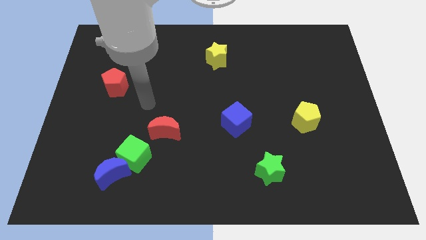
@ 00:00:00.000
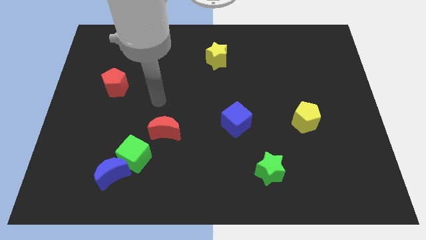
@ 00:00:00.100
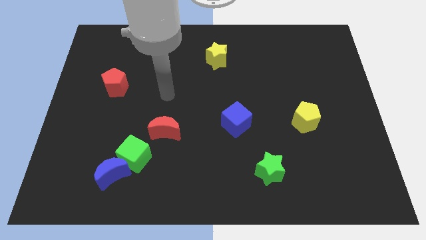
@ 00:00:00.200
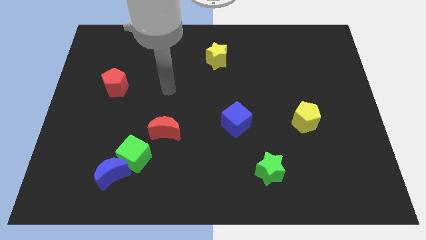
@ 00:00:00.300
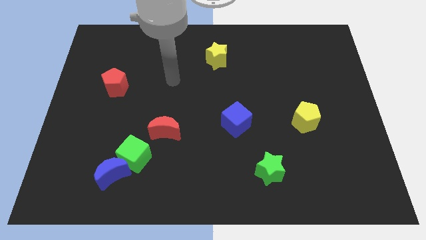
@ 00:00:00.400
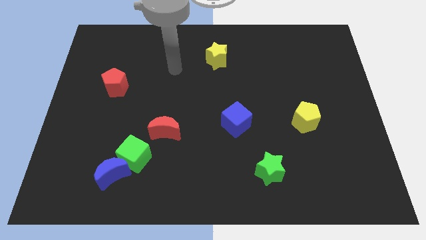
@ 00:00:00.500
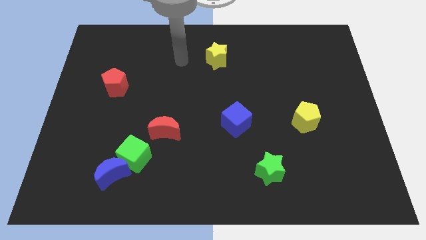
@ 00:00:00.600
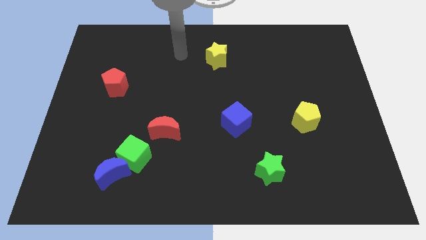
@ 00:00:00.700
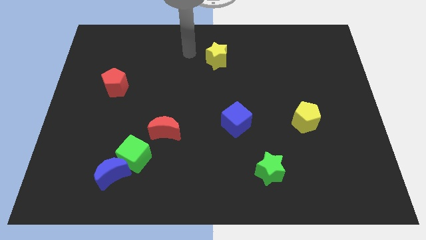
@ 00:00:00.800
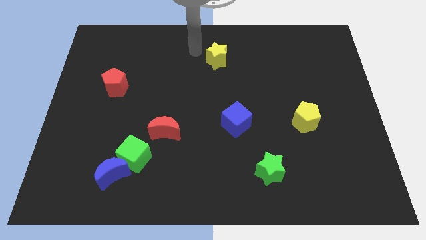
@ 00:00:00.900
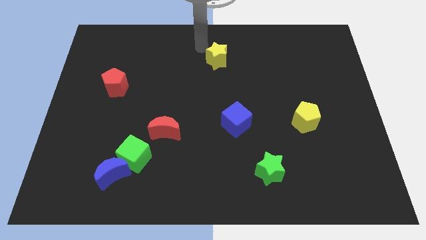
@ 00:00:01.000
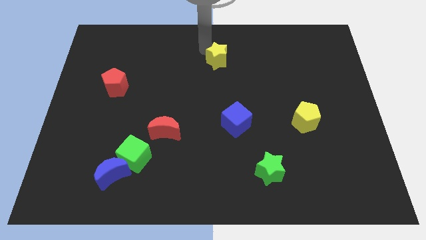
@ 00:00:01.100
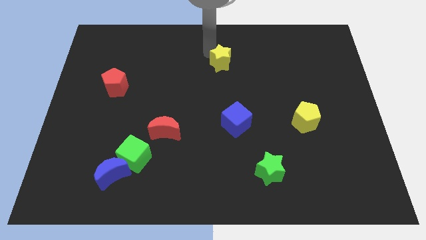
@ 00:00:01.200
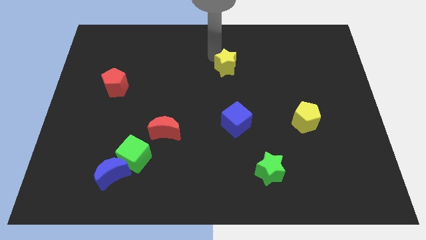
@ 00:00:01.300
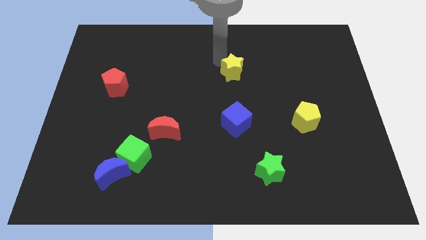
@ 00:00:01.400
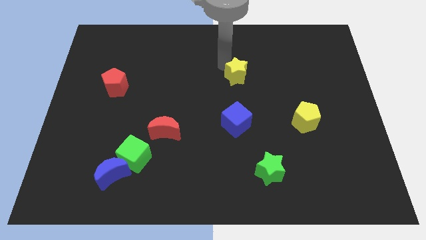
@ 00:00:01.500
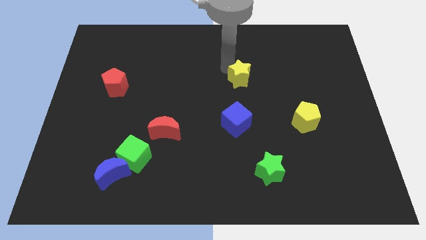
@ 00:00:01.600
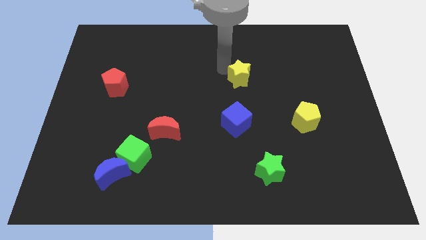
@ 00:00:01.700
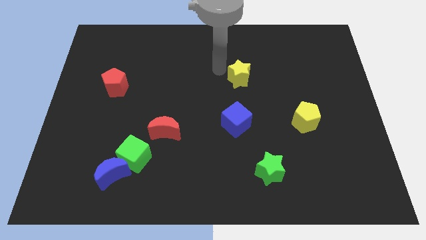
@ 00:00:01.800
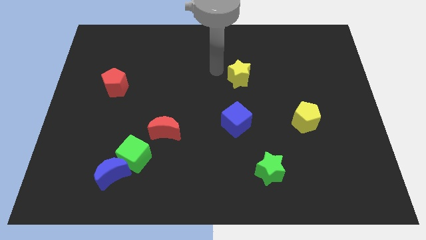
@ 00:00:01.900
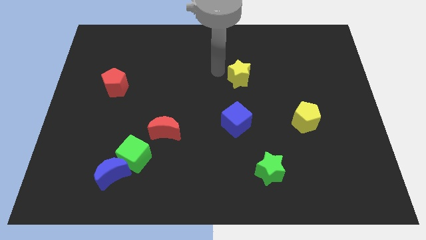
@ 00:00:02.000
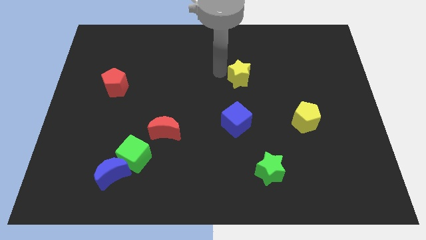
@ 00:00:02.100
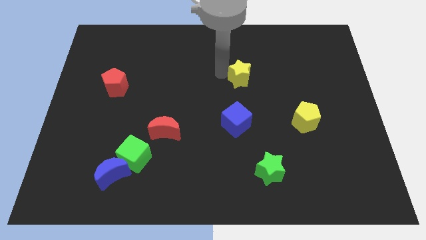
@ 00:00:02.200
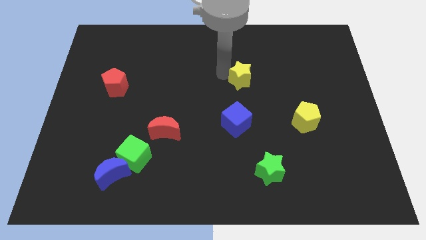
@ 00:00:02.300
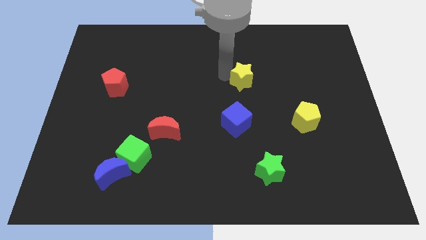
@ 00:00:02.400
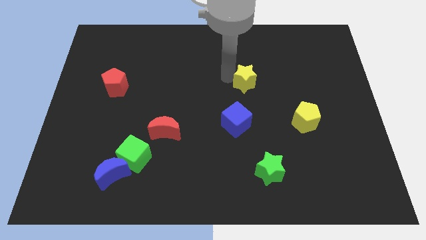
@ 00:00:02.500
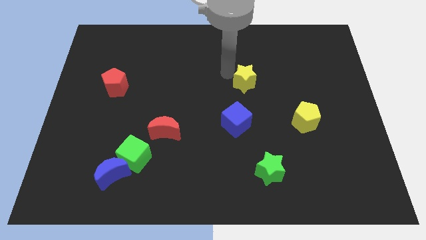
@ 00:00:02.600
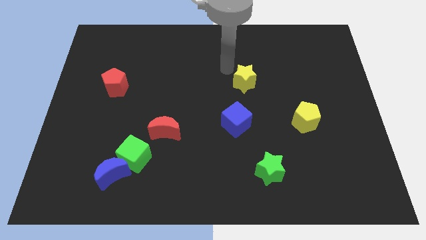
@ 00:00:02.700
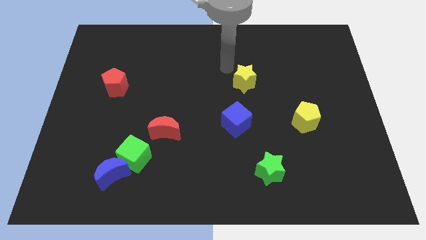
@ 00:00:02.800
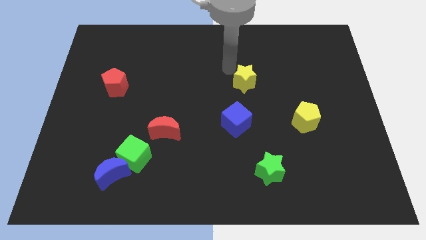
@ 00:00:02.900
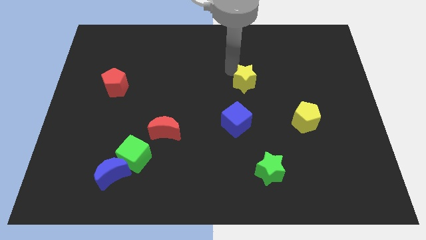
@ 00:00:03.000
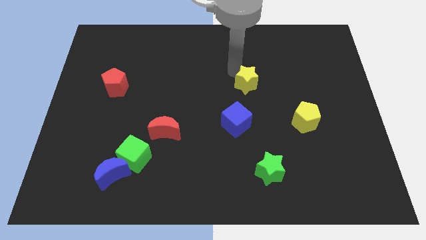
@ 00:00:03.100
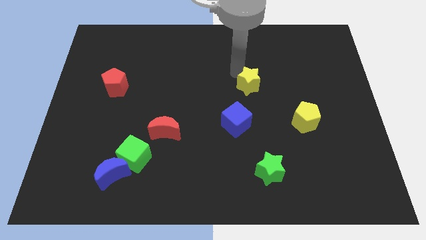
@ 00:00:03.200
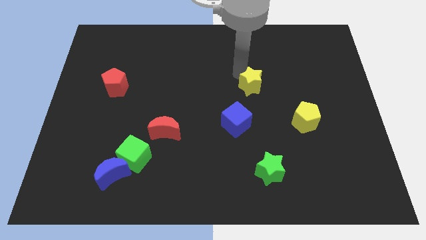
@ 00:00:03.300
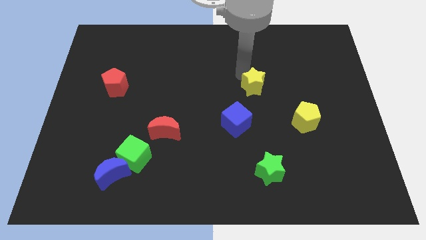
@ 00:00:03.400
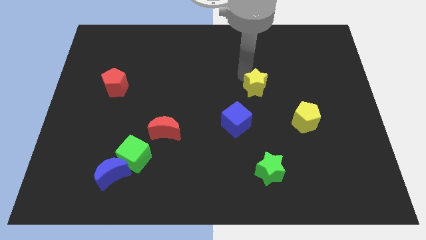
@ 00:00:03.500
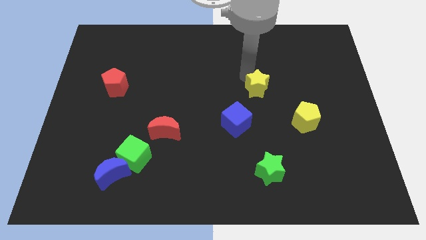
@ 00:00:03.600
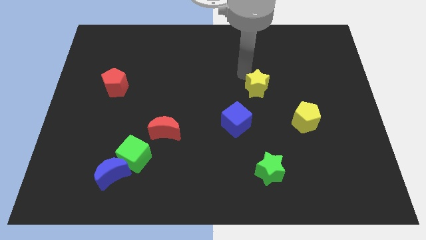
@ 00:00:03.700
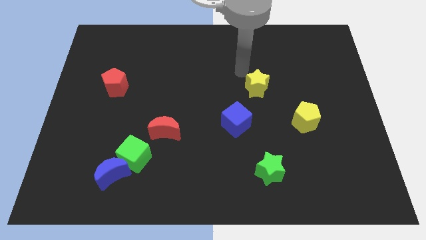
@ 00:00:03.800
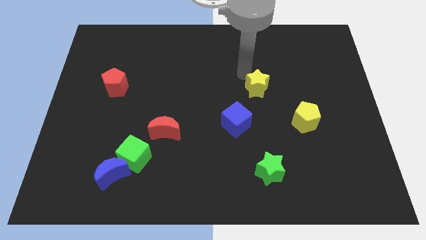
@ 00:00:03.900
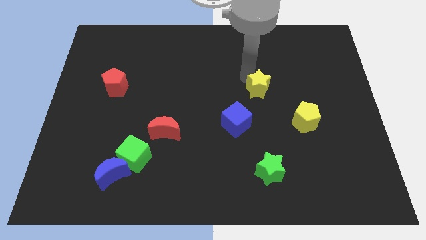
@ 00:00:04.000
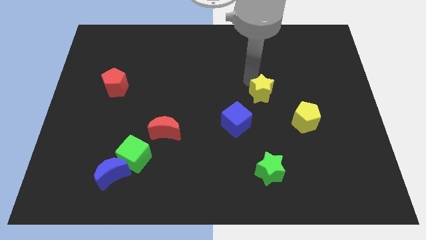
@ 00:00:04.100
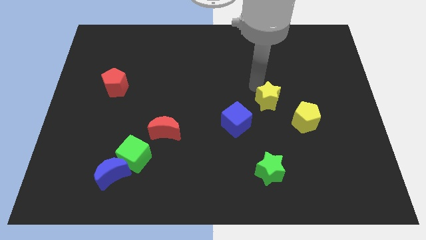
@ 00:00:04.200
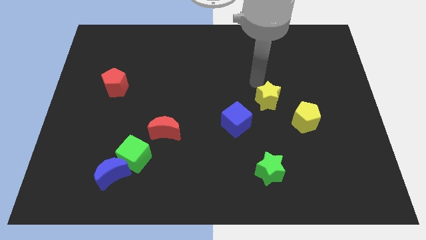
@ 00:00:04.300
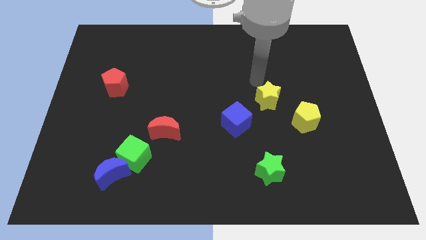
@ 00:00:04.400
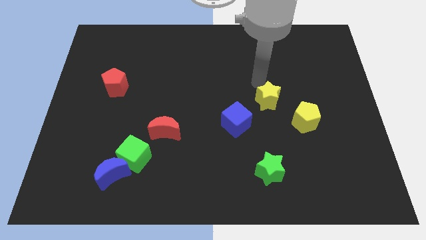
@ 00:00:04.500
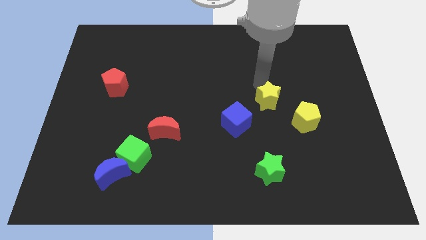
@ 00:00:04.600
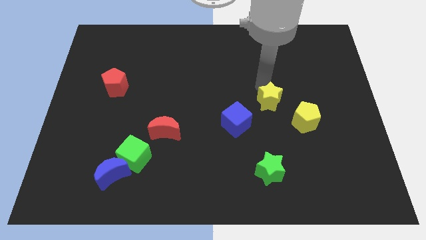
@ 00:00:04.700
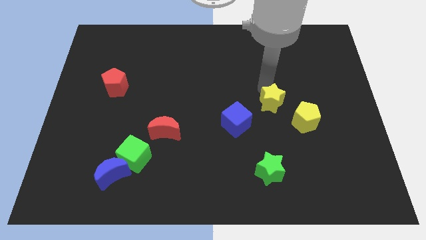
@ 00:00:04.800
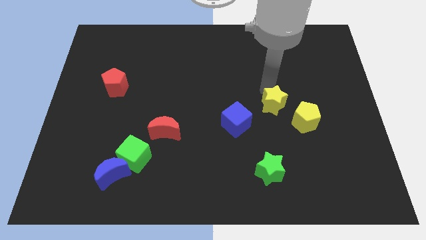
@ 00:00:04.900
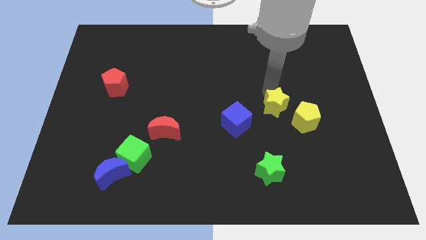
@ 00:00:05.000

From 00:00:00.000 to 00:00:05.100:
put the yellow star just right of the blue cube

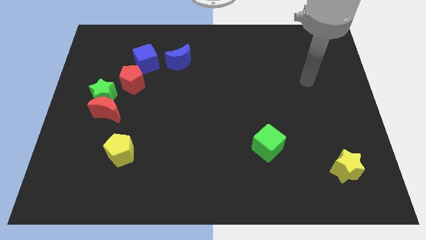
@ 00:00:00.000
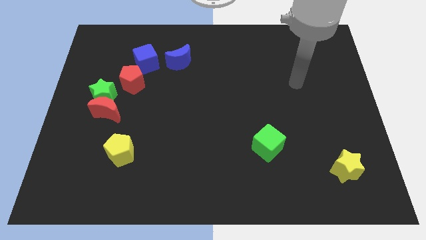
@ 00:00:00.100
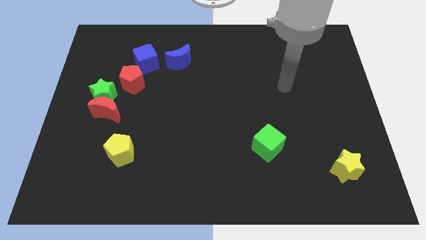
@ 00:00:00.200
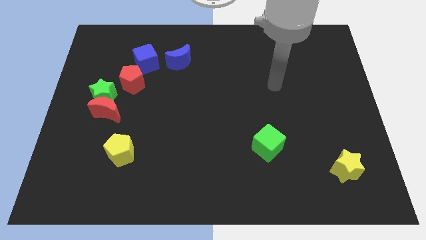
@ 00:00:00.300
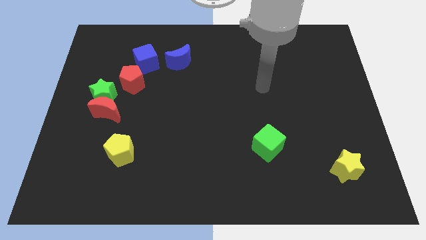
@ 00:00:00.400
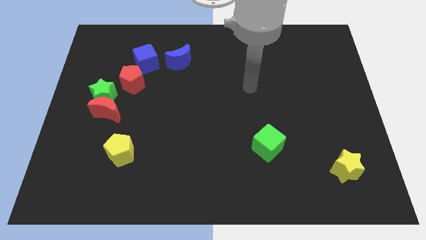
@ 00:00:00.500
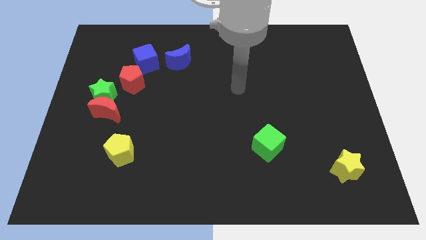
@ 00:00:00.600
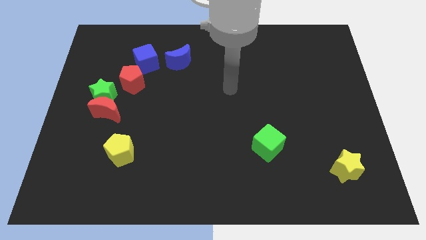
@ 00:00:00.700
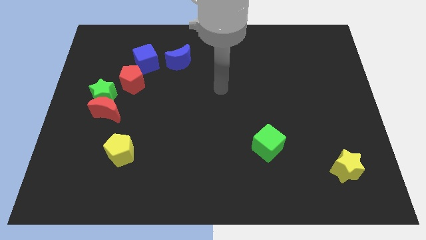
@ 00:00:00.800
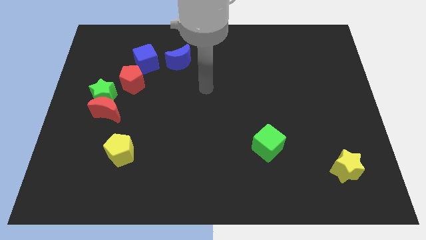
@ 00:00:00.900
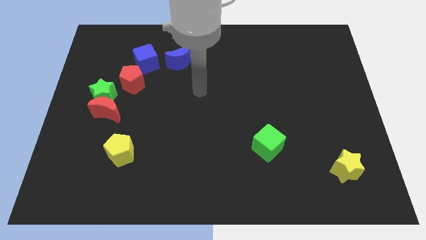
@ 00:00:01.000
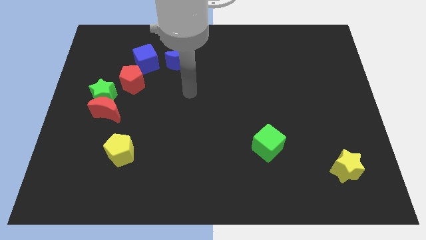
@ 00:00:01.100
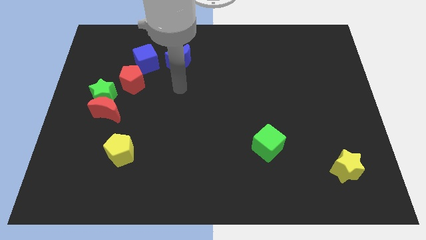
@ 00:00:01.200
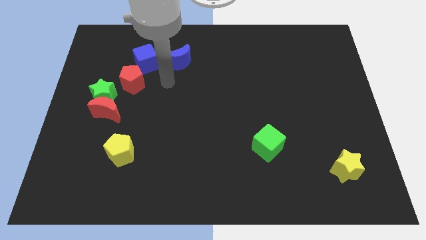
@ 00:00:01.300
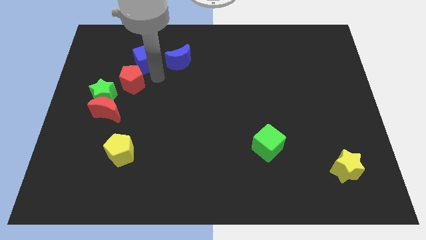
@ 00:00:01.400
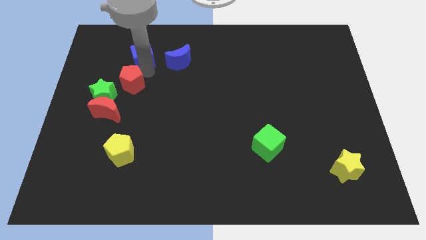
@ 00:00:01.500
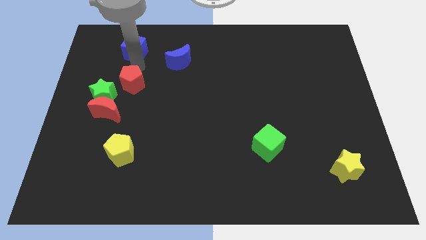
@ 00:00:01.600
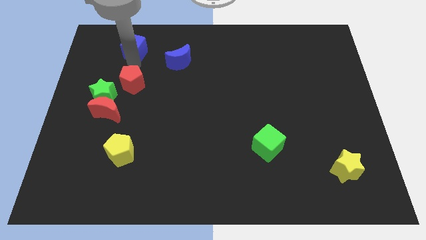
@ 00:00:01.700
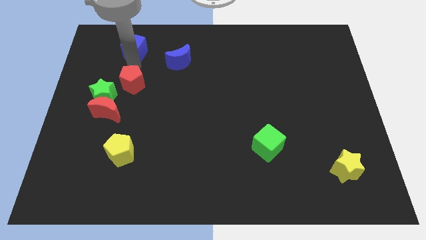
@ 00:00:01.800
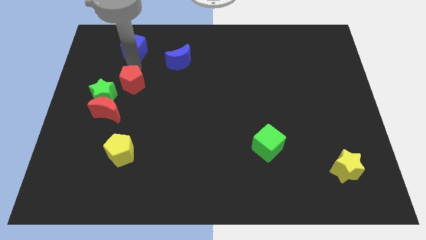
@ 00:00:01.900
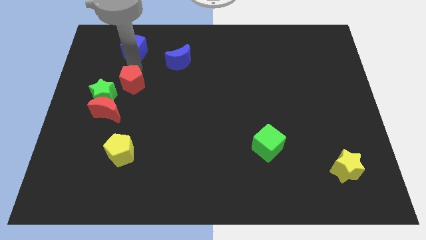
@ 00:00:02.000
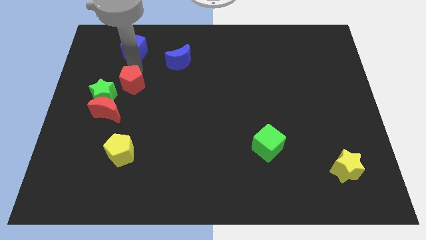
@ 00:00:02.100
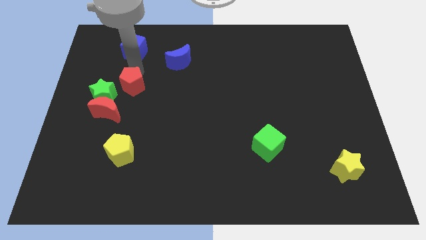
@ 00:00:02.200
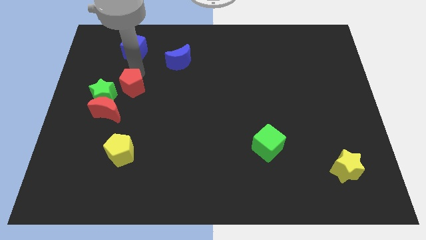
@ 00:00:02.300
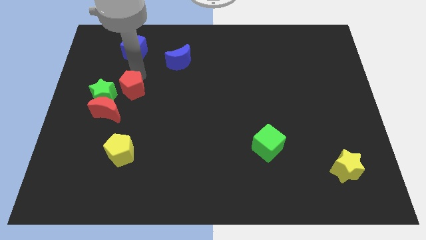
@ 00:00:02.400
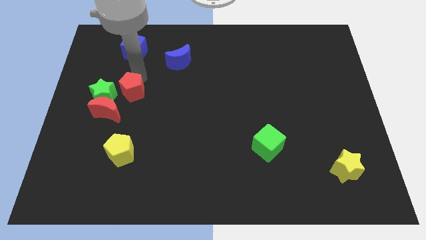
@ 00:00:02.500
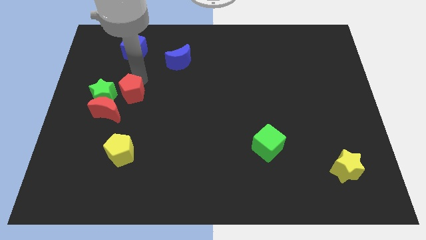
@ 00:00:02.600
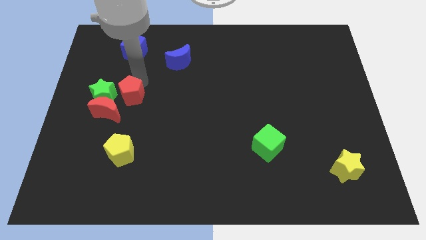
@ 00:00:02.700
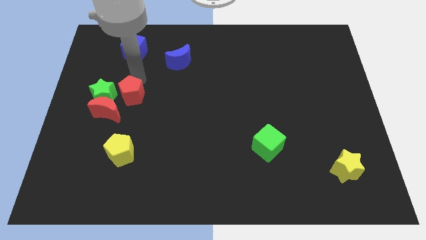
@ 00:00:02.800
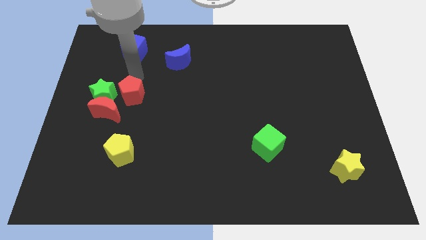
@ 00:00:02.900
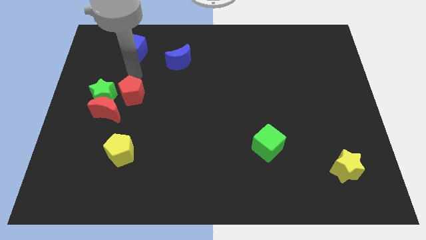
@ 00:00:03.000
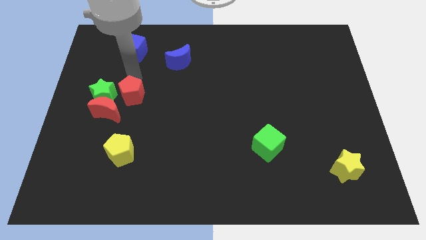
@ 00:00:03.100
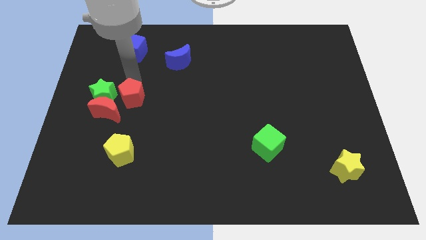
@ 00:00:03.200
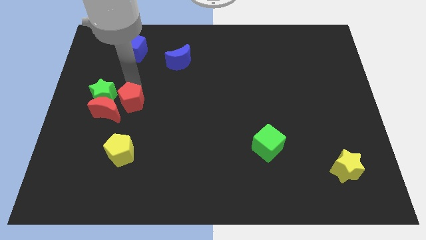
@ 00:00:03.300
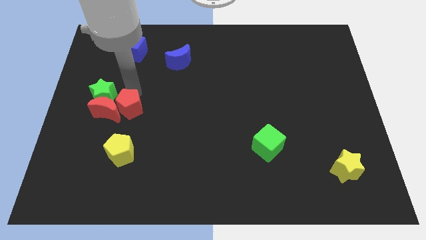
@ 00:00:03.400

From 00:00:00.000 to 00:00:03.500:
move the red pentagon diagonally down and to the right of the red moon
